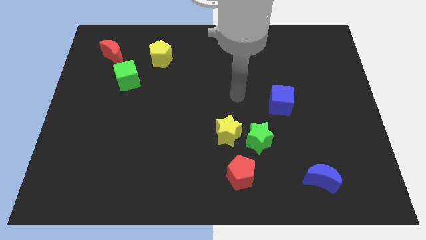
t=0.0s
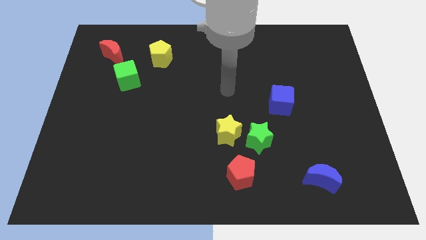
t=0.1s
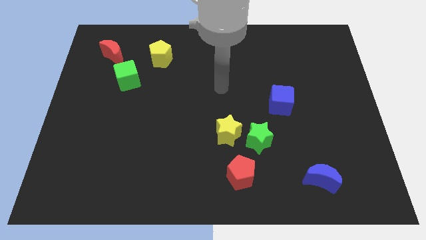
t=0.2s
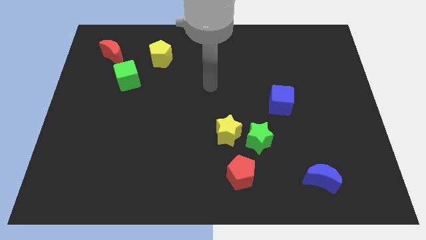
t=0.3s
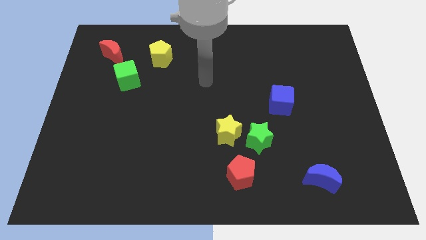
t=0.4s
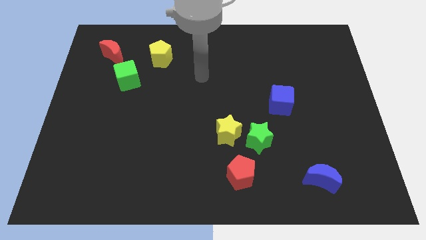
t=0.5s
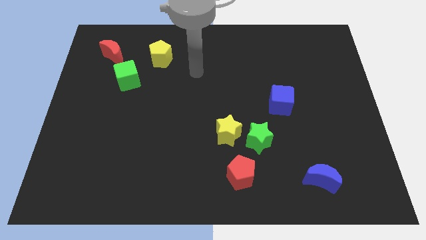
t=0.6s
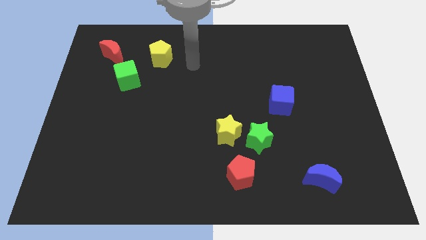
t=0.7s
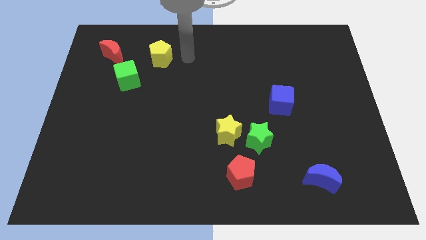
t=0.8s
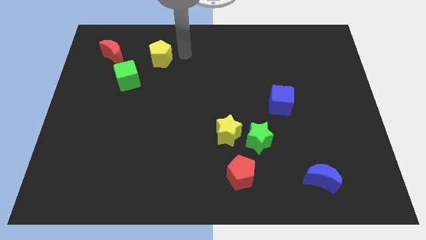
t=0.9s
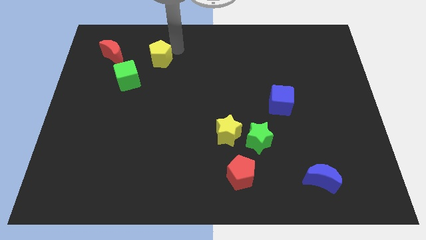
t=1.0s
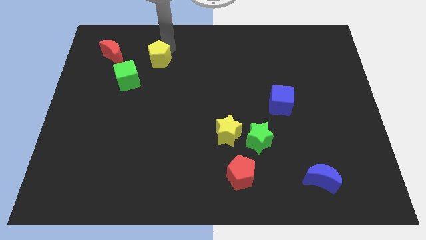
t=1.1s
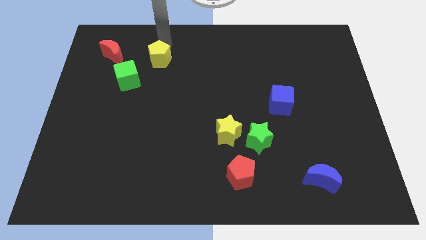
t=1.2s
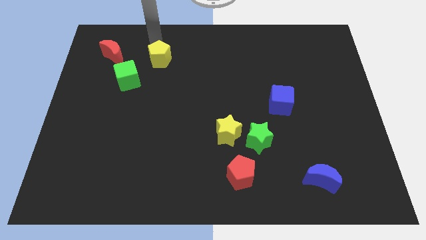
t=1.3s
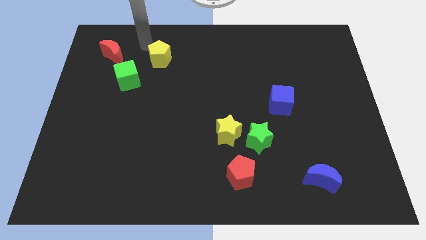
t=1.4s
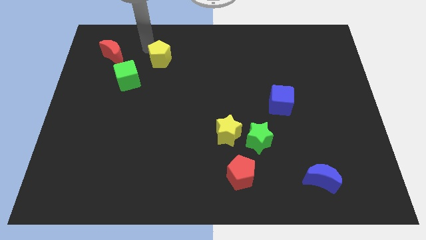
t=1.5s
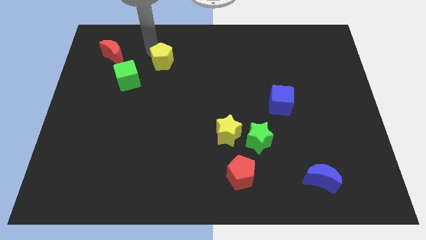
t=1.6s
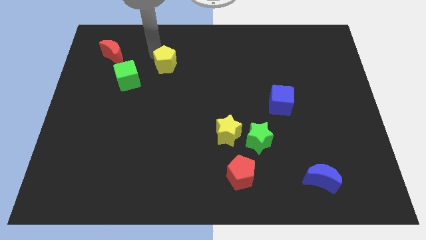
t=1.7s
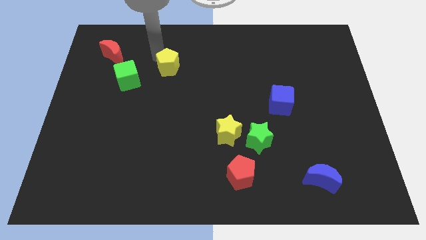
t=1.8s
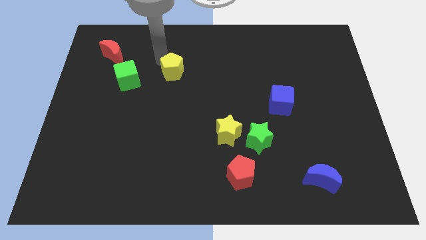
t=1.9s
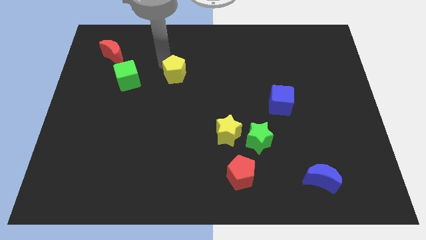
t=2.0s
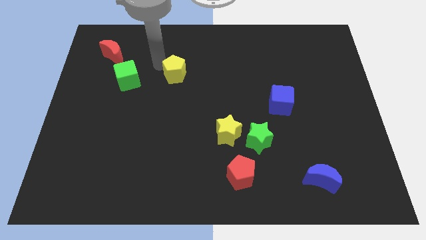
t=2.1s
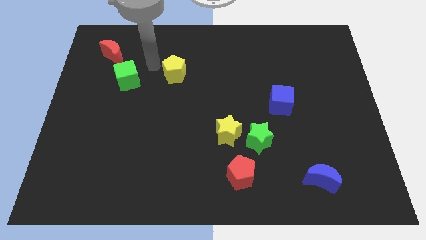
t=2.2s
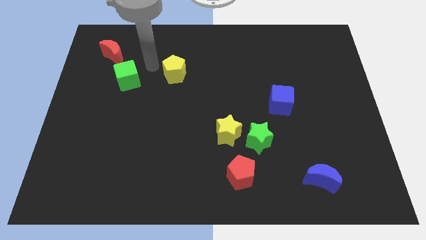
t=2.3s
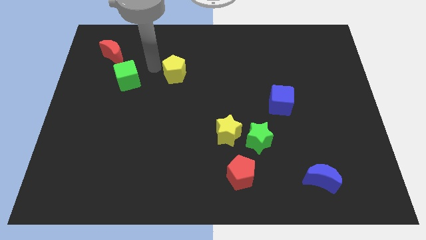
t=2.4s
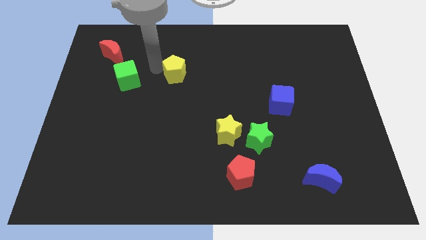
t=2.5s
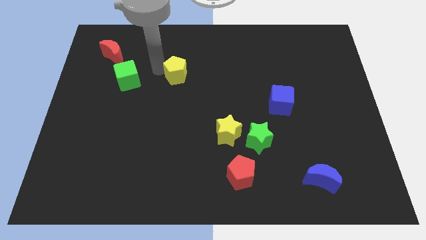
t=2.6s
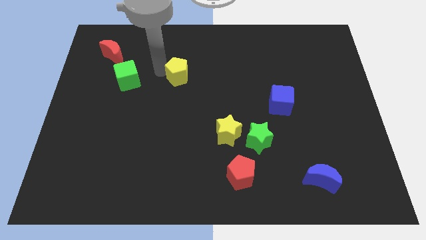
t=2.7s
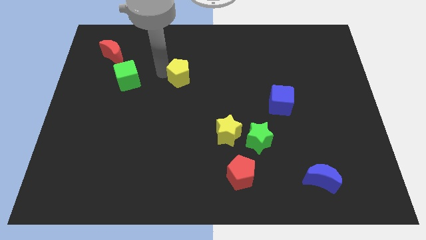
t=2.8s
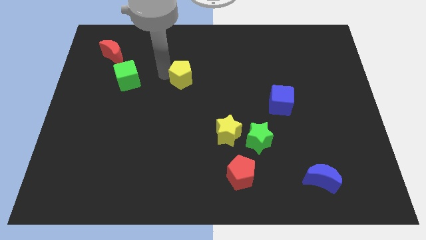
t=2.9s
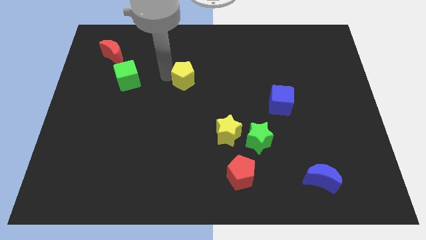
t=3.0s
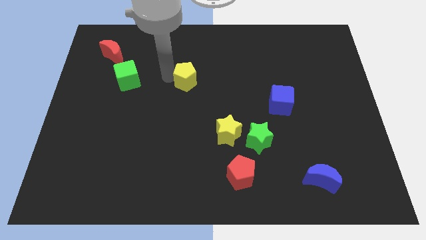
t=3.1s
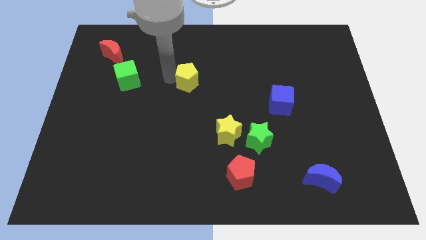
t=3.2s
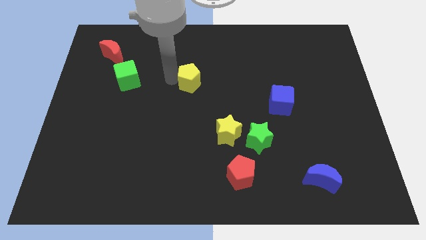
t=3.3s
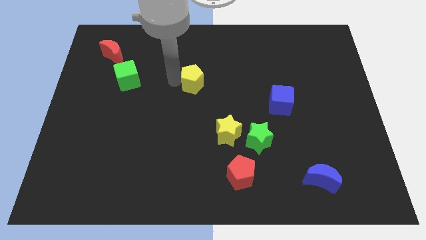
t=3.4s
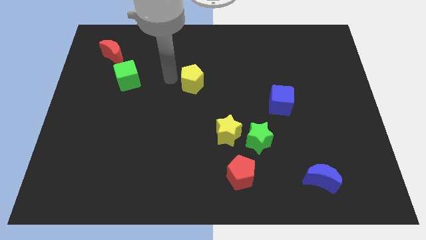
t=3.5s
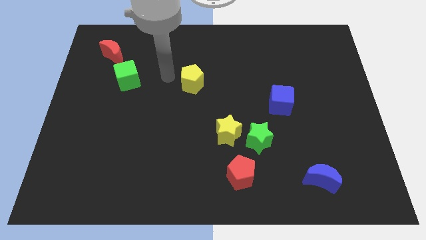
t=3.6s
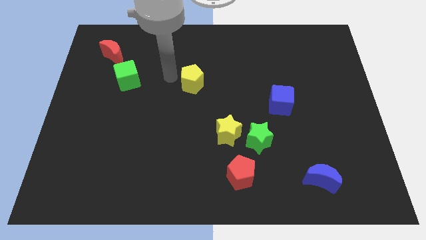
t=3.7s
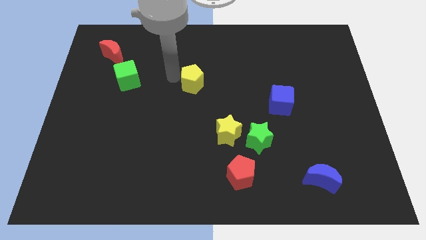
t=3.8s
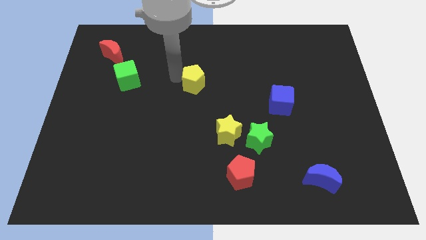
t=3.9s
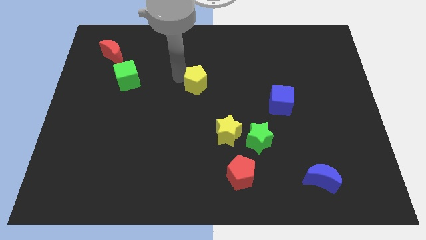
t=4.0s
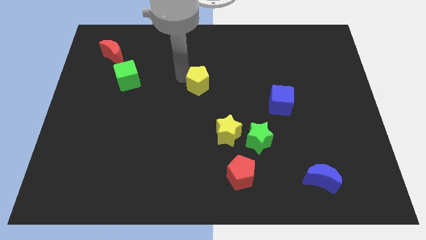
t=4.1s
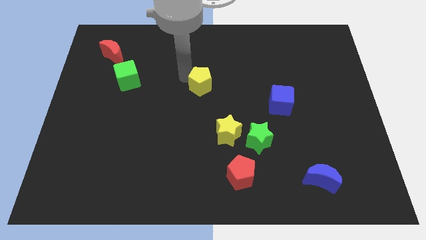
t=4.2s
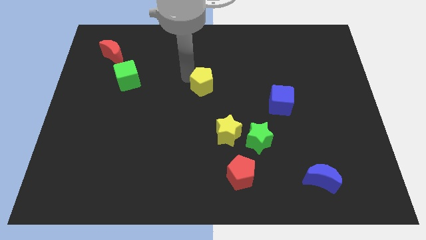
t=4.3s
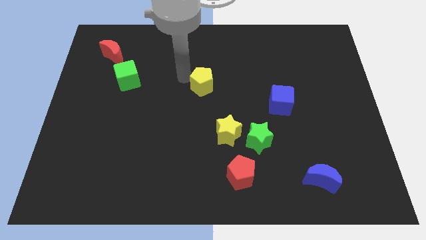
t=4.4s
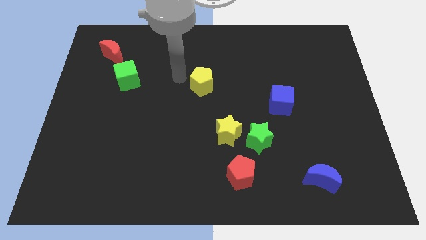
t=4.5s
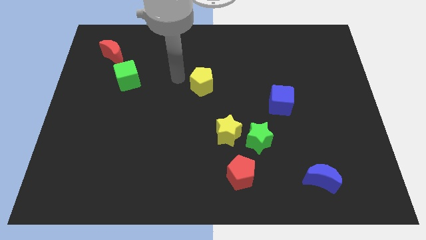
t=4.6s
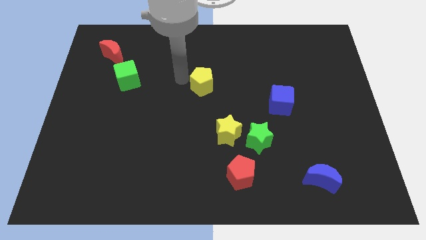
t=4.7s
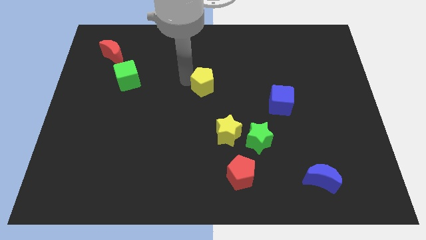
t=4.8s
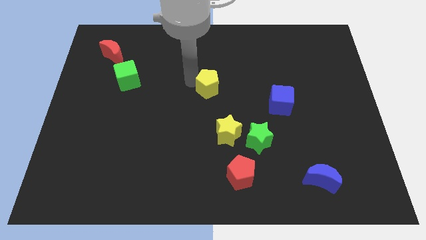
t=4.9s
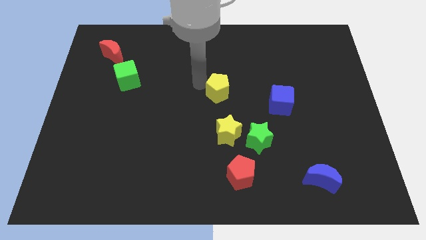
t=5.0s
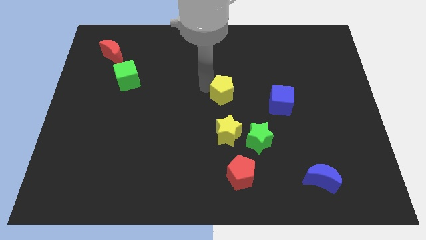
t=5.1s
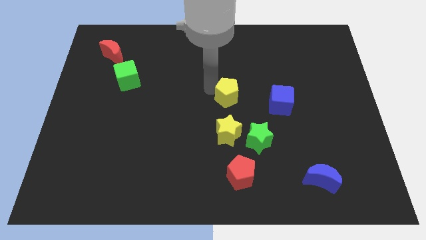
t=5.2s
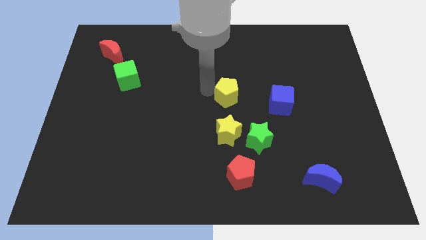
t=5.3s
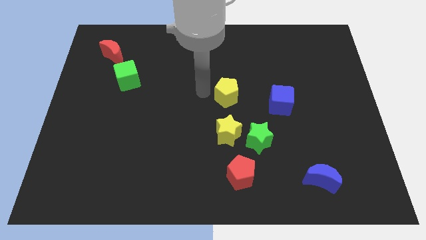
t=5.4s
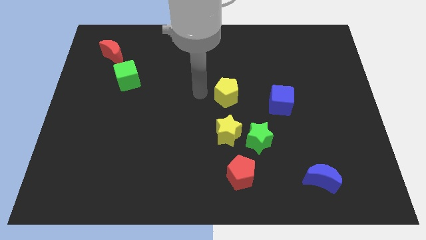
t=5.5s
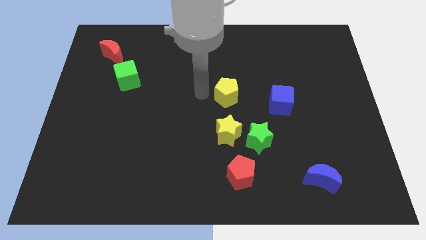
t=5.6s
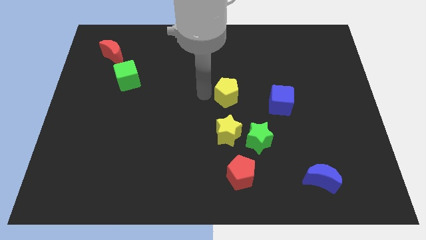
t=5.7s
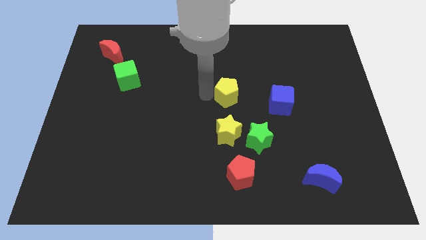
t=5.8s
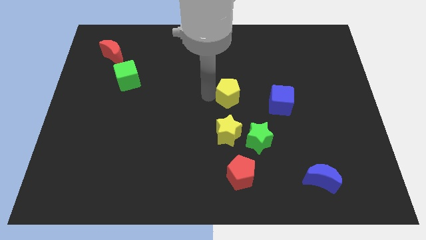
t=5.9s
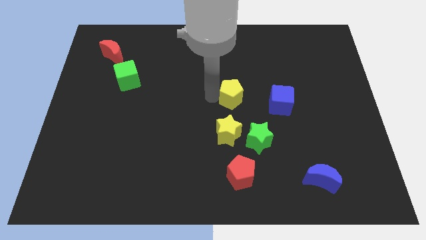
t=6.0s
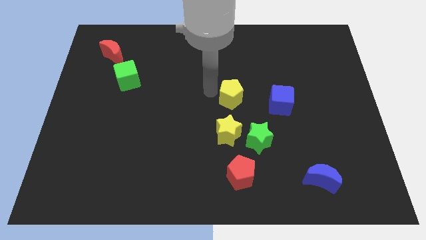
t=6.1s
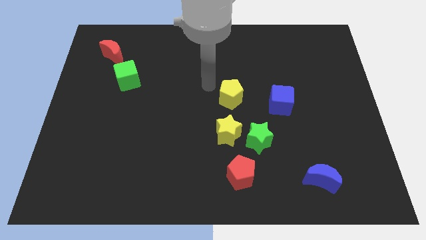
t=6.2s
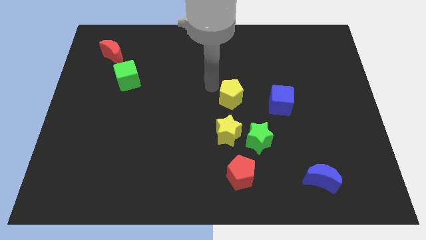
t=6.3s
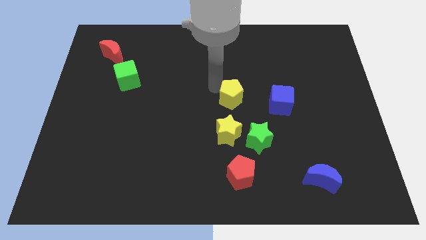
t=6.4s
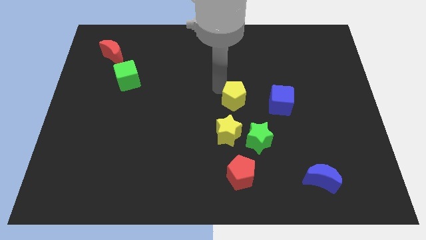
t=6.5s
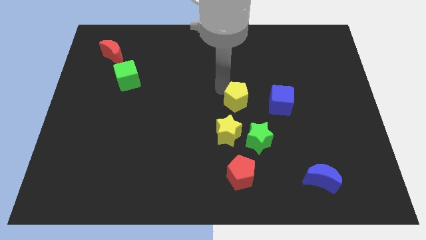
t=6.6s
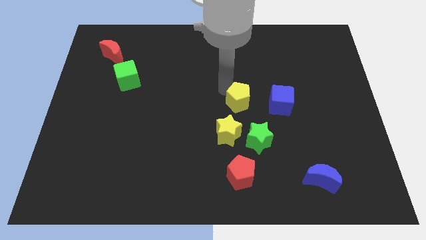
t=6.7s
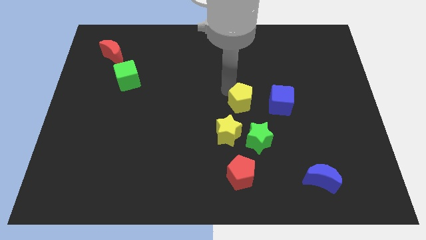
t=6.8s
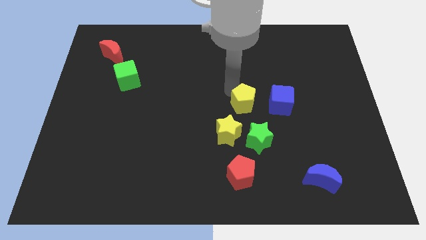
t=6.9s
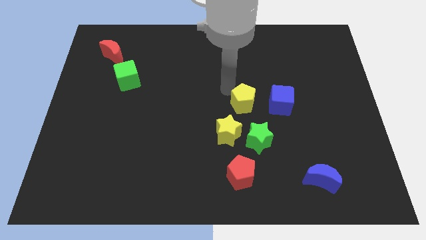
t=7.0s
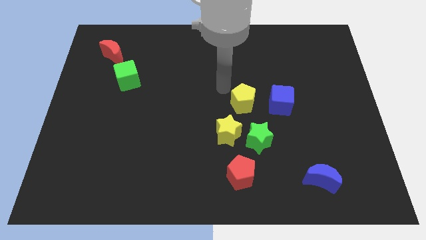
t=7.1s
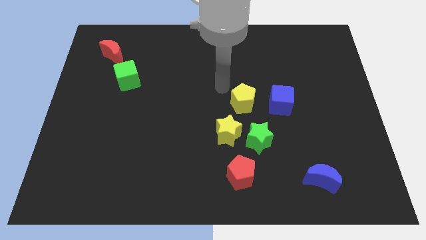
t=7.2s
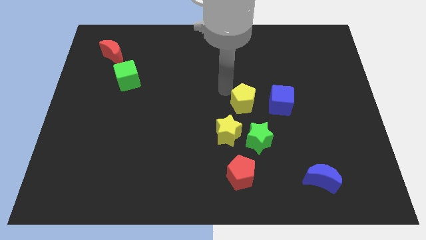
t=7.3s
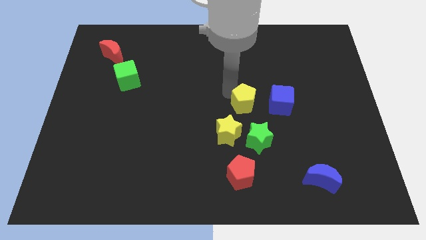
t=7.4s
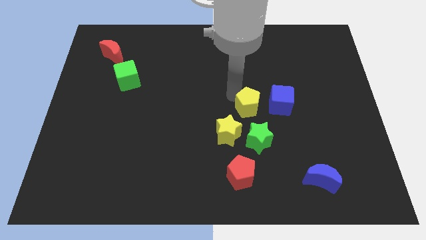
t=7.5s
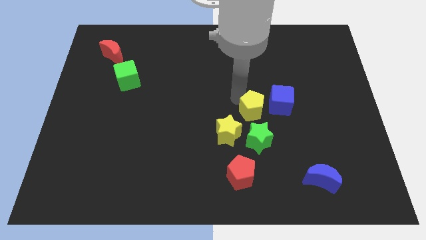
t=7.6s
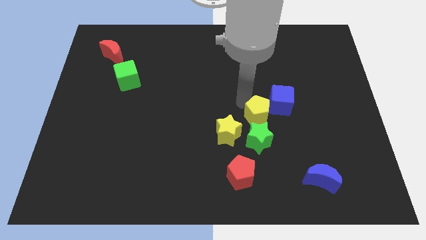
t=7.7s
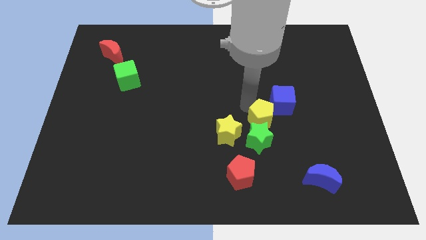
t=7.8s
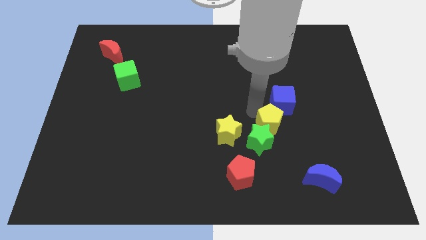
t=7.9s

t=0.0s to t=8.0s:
slide the yellow pentagon to the bottom side of the blue cube
